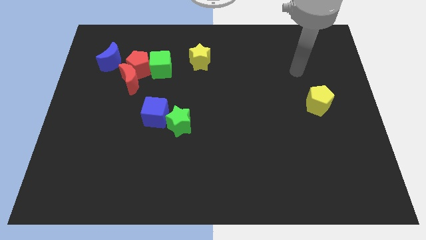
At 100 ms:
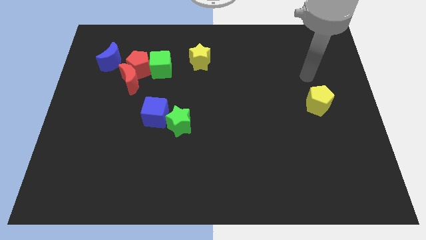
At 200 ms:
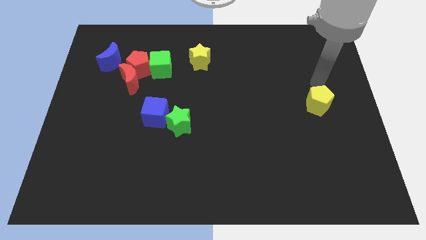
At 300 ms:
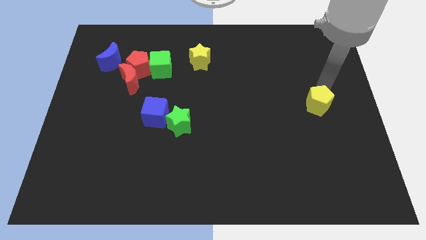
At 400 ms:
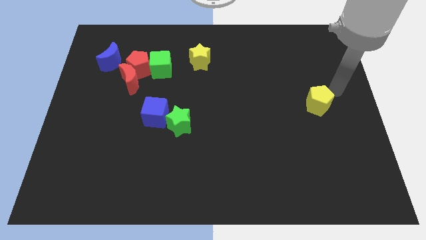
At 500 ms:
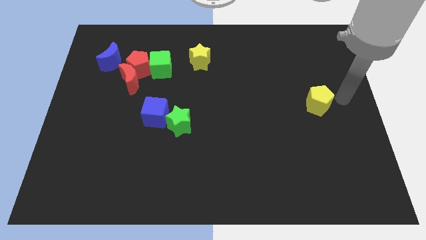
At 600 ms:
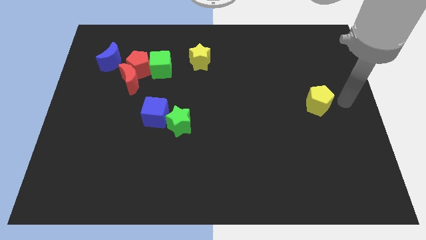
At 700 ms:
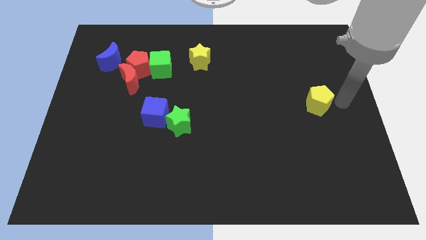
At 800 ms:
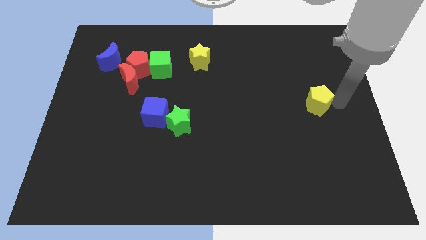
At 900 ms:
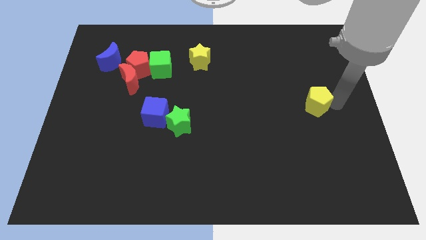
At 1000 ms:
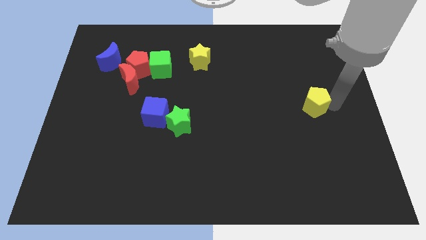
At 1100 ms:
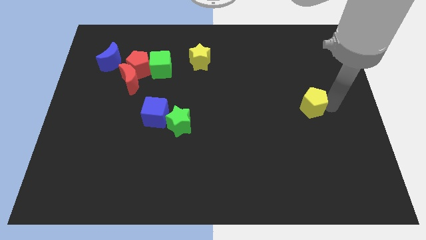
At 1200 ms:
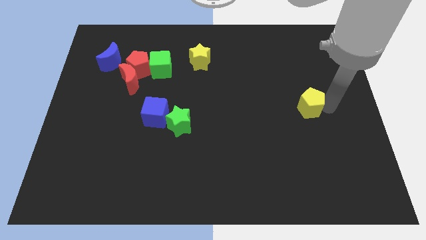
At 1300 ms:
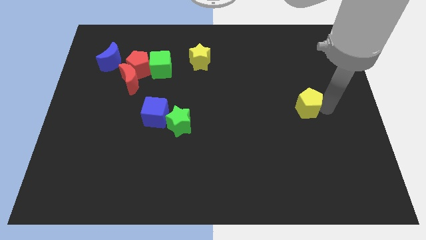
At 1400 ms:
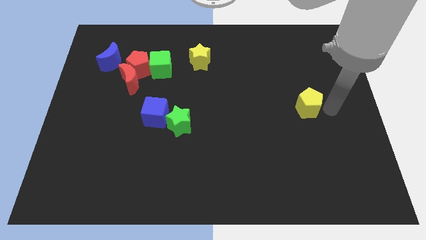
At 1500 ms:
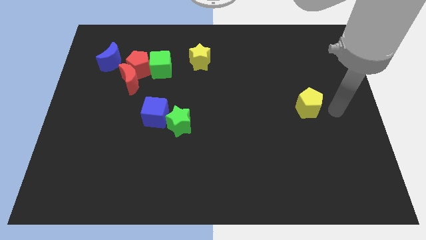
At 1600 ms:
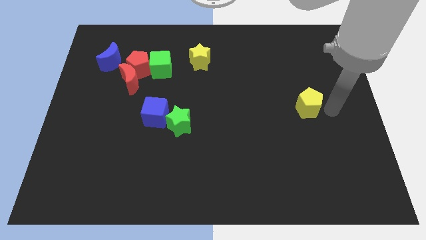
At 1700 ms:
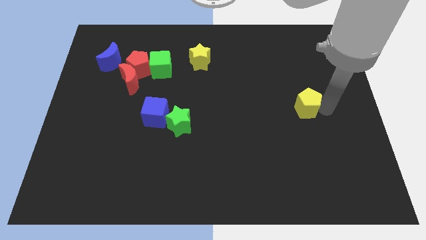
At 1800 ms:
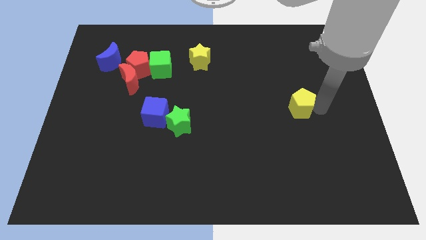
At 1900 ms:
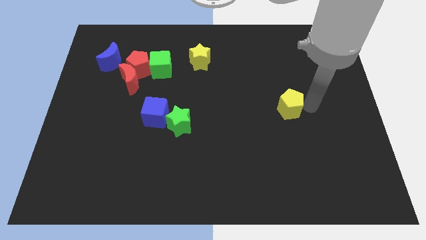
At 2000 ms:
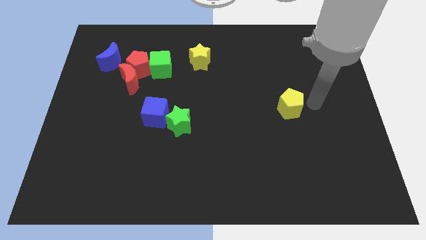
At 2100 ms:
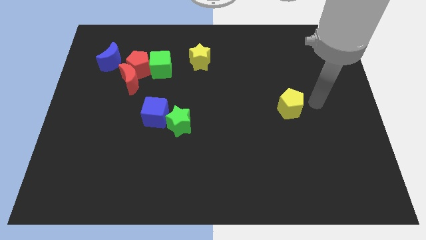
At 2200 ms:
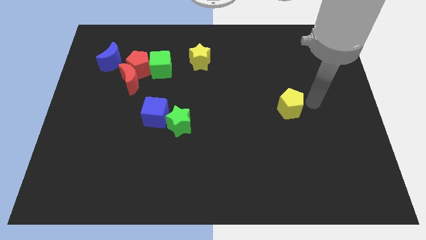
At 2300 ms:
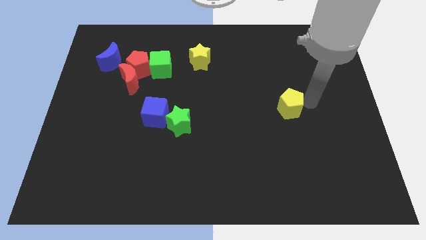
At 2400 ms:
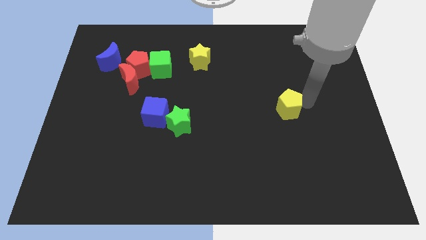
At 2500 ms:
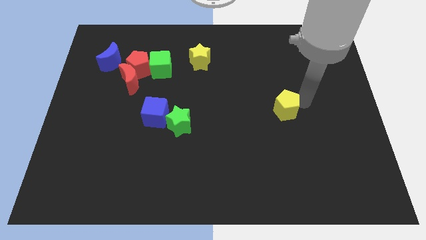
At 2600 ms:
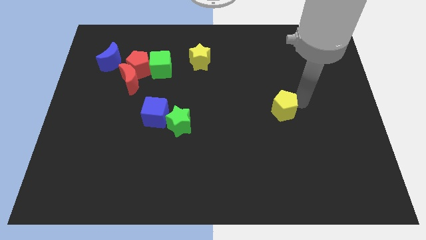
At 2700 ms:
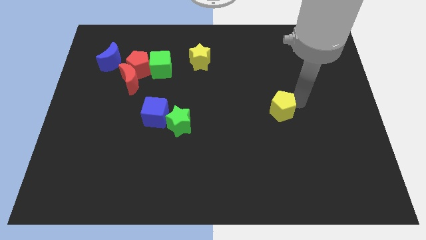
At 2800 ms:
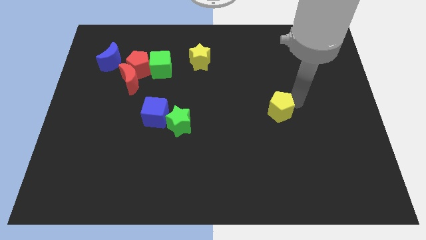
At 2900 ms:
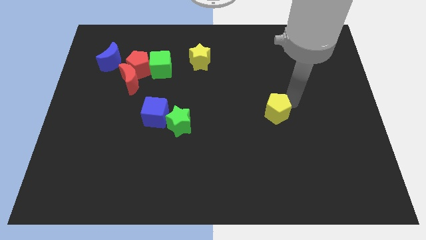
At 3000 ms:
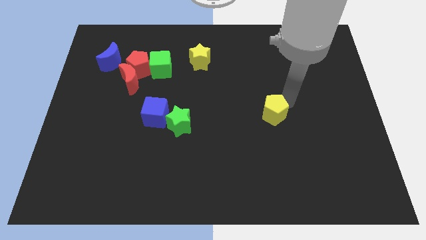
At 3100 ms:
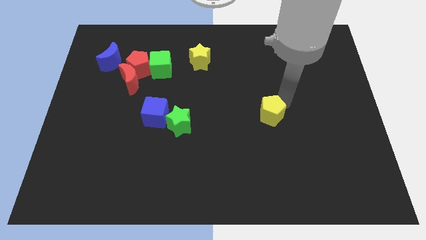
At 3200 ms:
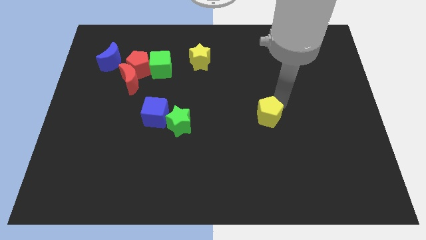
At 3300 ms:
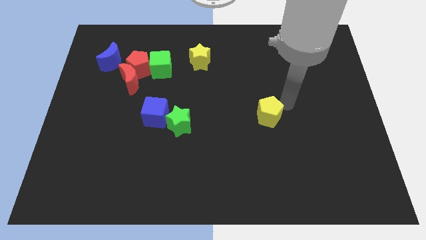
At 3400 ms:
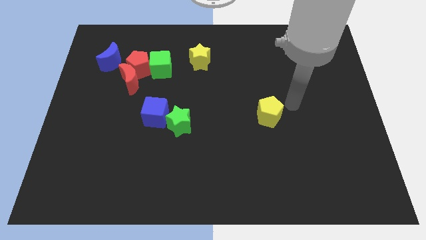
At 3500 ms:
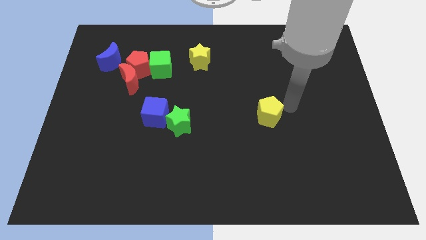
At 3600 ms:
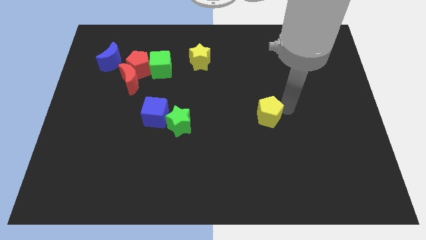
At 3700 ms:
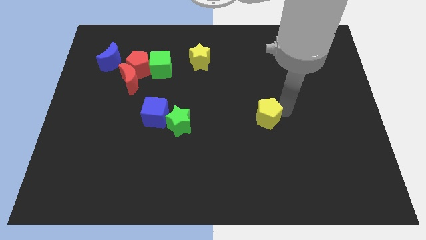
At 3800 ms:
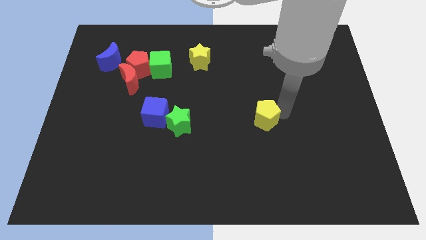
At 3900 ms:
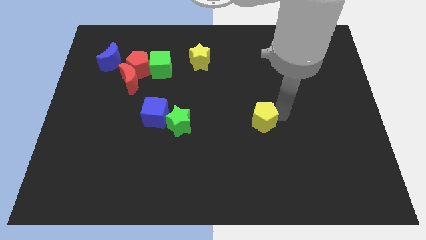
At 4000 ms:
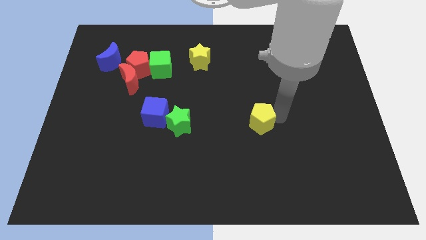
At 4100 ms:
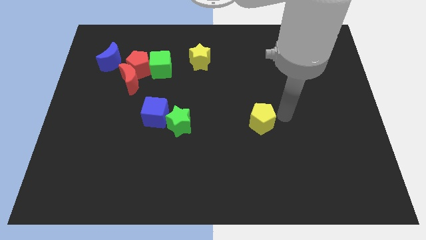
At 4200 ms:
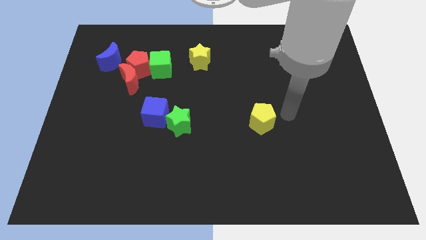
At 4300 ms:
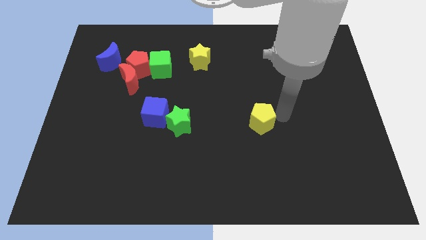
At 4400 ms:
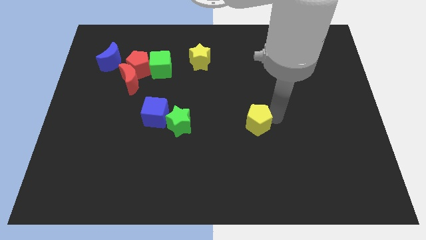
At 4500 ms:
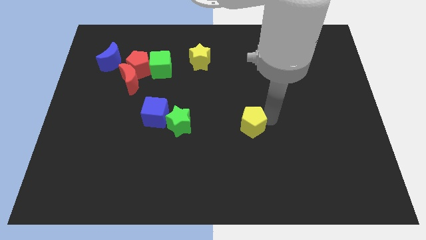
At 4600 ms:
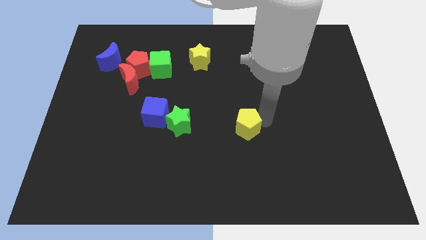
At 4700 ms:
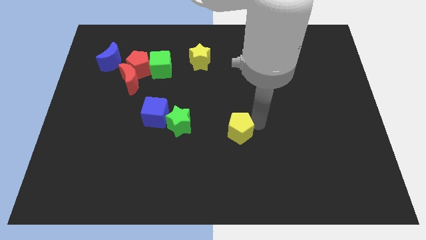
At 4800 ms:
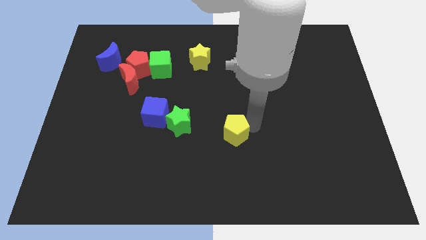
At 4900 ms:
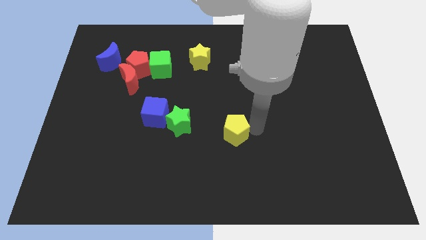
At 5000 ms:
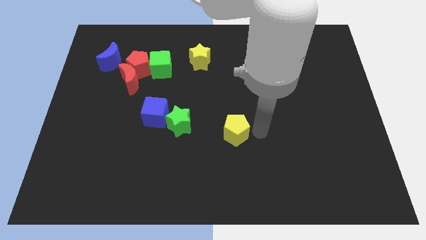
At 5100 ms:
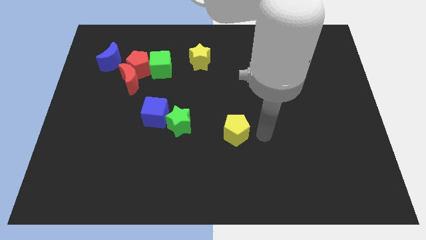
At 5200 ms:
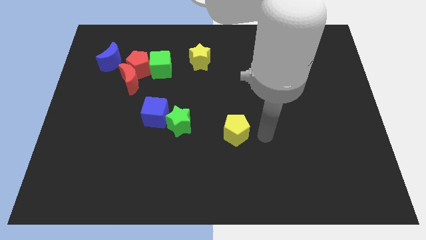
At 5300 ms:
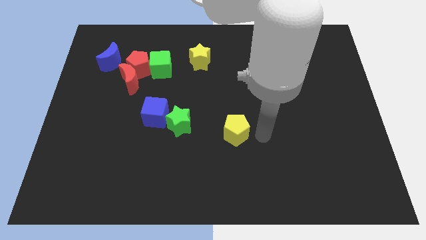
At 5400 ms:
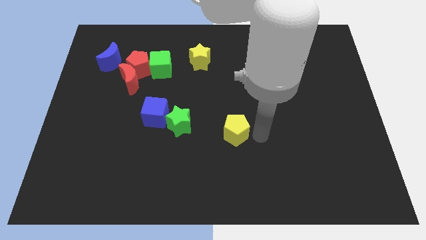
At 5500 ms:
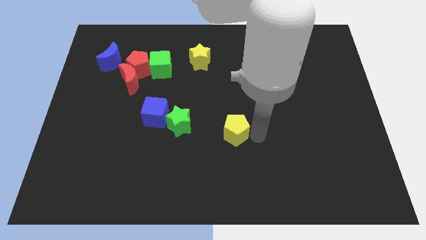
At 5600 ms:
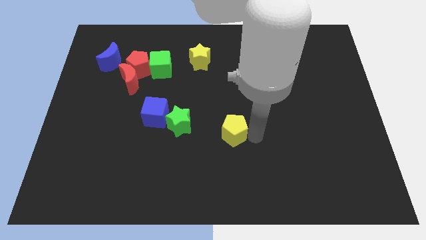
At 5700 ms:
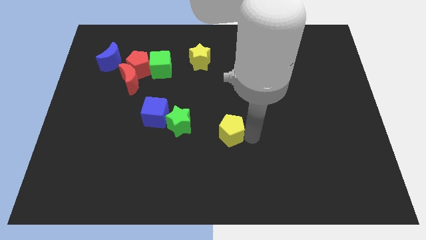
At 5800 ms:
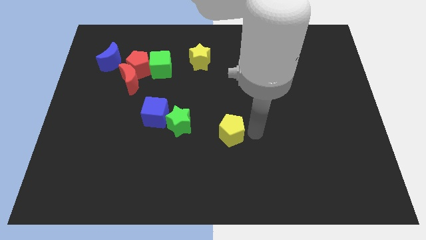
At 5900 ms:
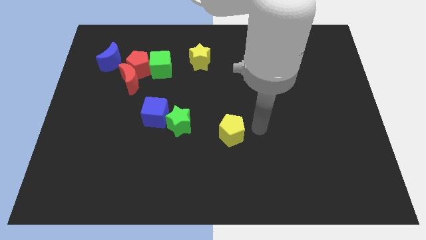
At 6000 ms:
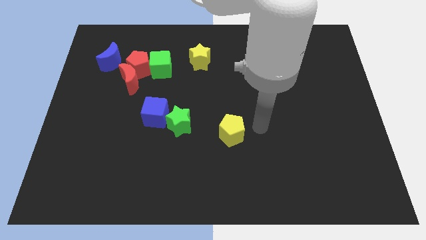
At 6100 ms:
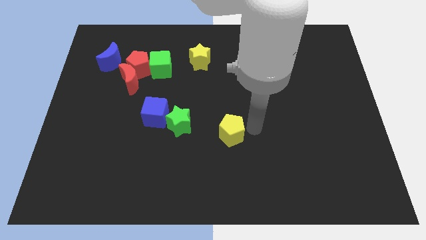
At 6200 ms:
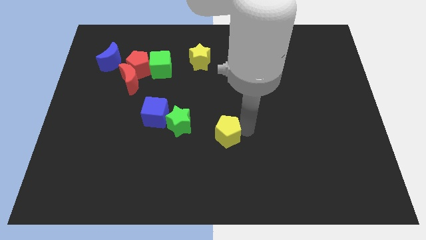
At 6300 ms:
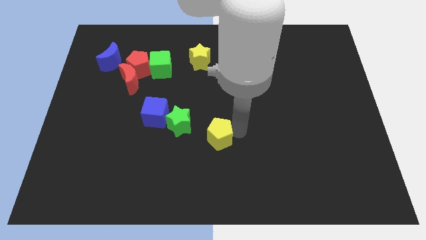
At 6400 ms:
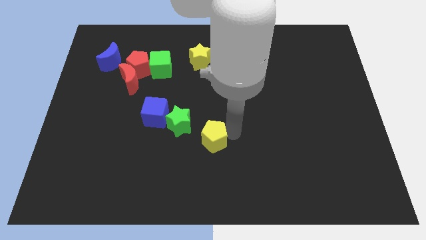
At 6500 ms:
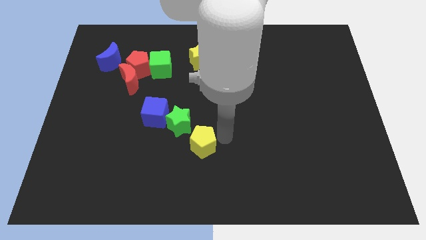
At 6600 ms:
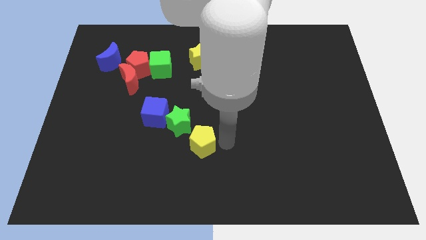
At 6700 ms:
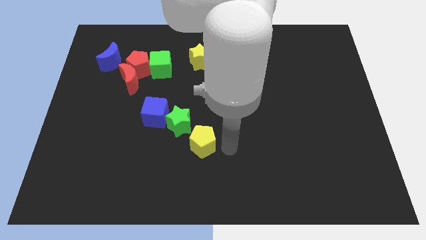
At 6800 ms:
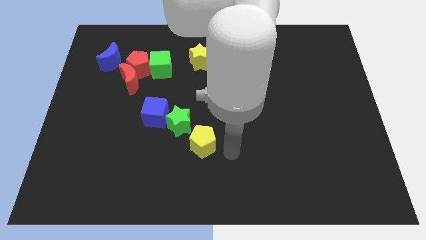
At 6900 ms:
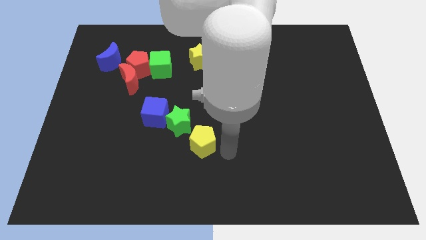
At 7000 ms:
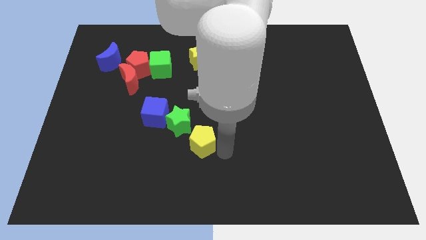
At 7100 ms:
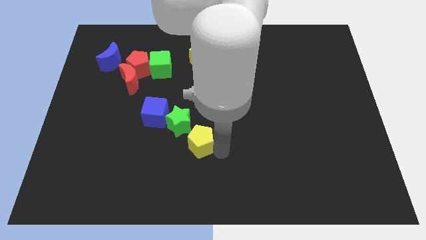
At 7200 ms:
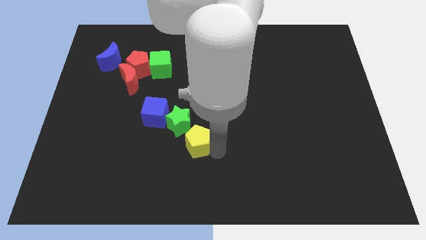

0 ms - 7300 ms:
put the yellow pentagon to the bottom right side of the blue cube

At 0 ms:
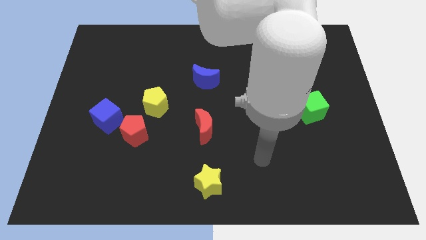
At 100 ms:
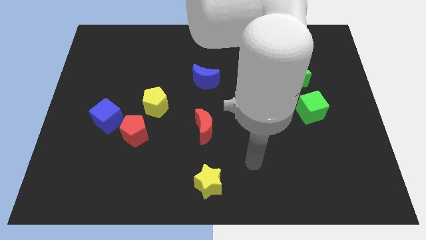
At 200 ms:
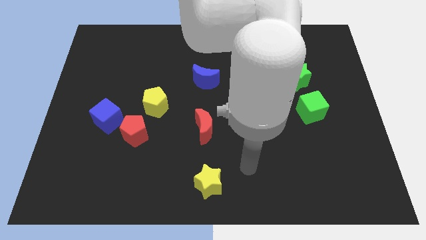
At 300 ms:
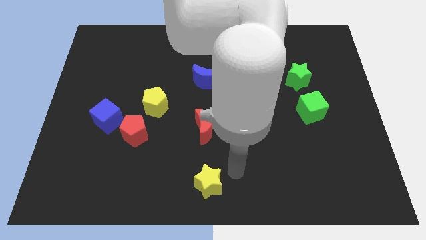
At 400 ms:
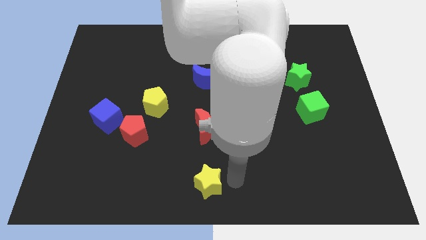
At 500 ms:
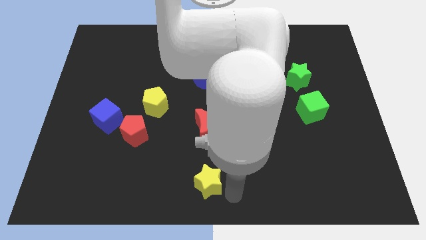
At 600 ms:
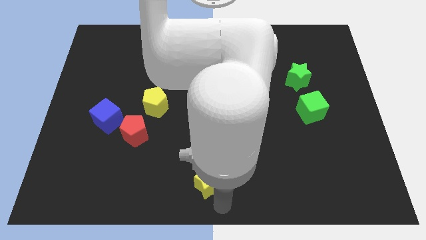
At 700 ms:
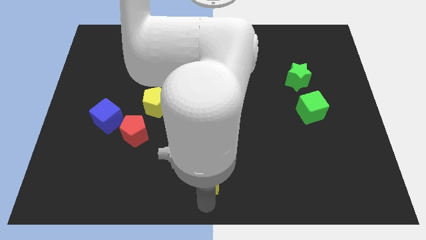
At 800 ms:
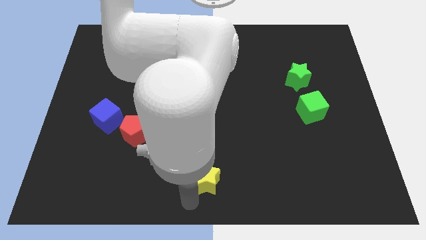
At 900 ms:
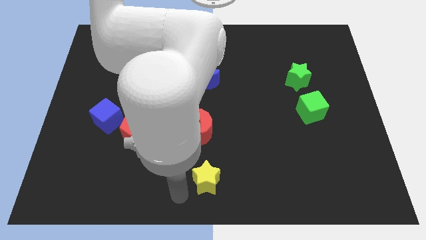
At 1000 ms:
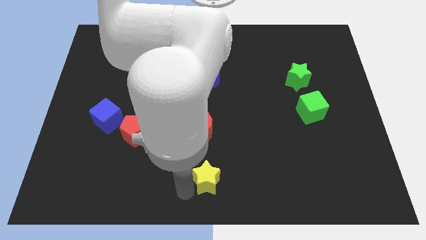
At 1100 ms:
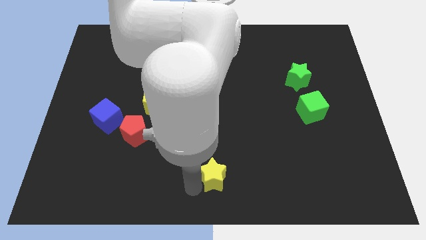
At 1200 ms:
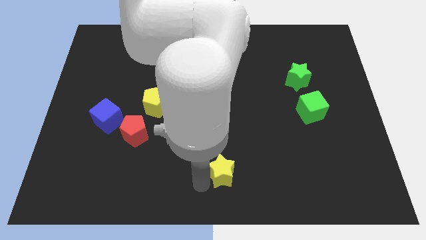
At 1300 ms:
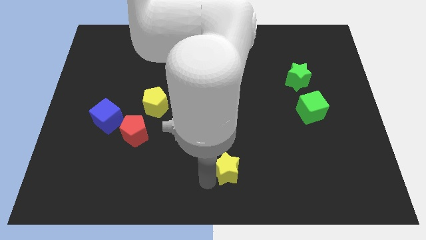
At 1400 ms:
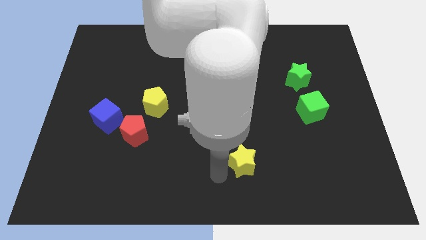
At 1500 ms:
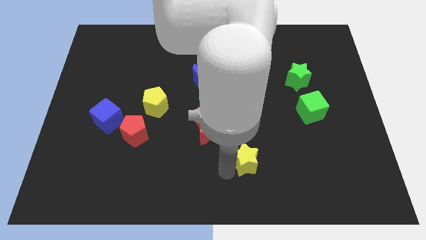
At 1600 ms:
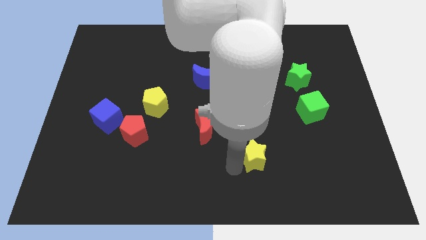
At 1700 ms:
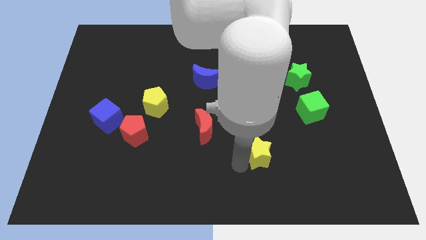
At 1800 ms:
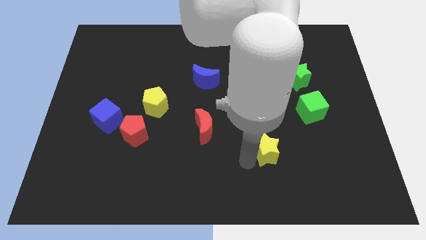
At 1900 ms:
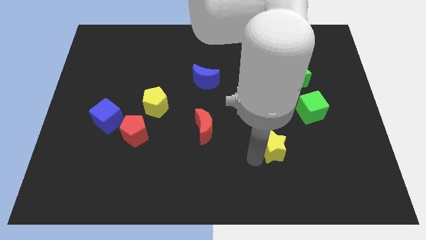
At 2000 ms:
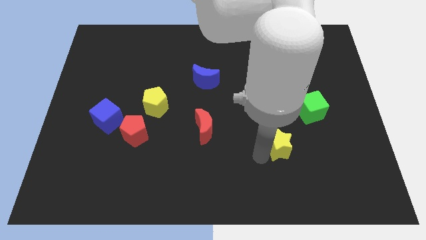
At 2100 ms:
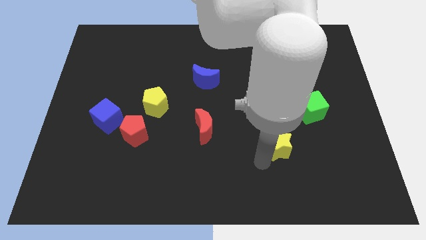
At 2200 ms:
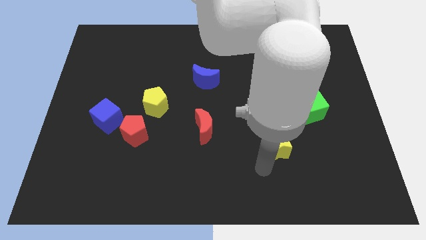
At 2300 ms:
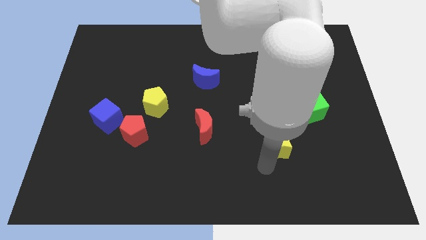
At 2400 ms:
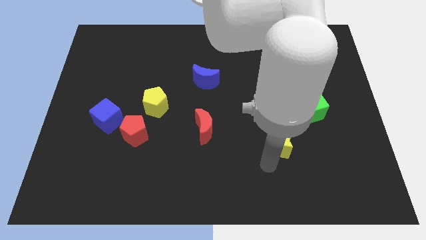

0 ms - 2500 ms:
put the yellow star diagonally down and to the left of the green cube
